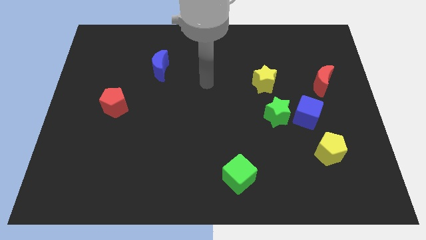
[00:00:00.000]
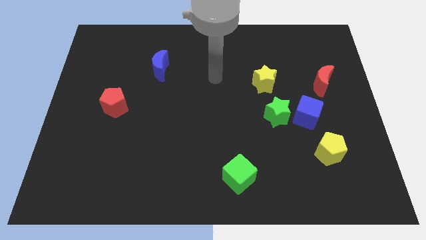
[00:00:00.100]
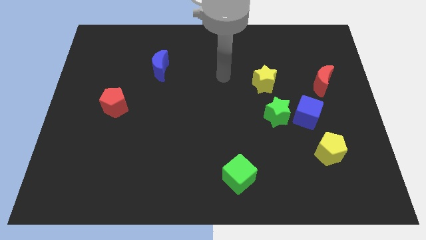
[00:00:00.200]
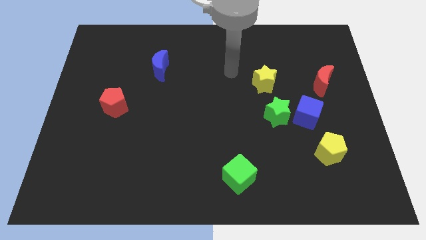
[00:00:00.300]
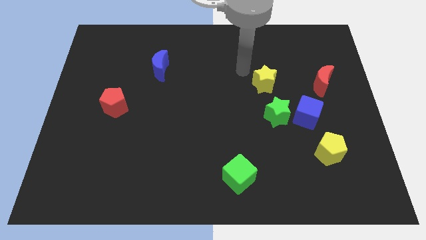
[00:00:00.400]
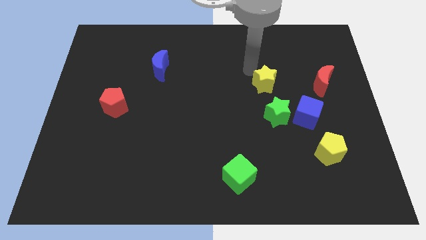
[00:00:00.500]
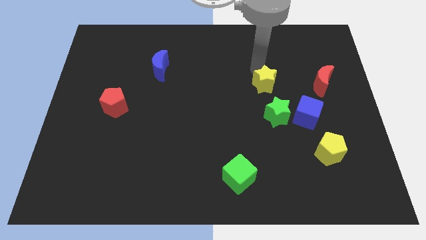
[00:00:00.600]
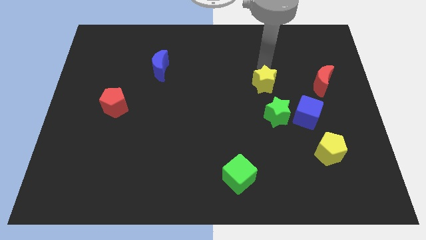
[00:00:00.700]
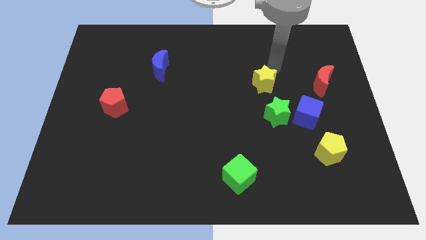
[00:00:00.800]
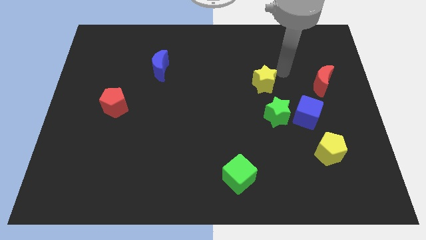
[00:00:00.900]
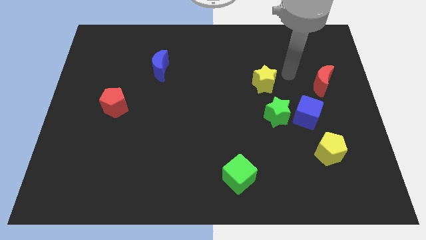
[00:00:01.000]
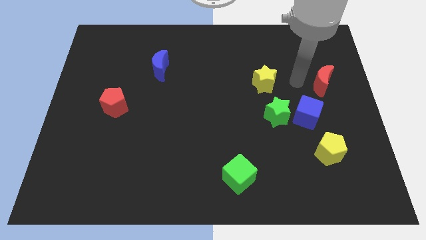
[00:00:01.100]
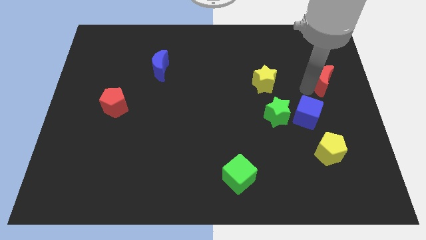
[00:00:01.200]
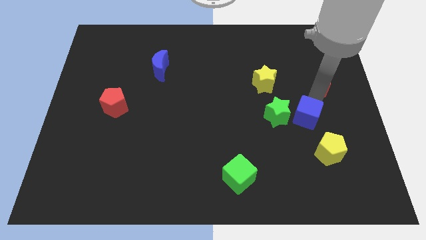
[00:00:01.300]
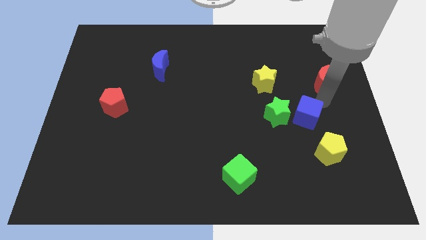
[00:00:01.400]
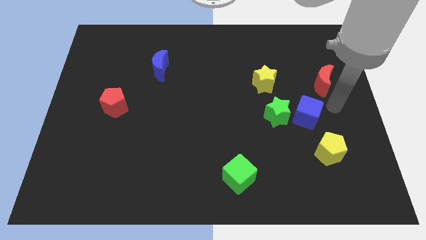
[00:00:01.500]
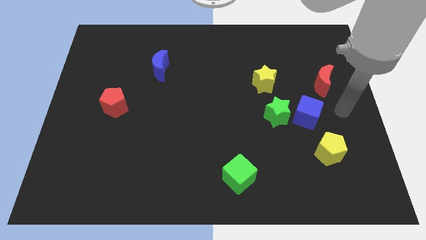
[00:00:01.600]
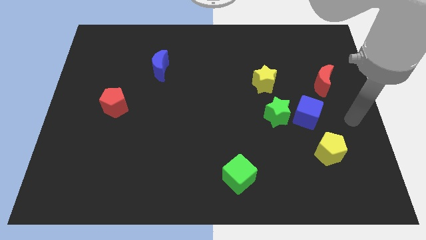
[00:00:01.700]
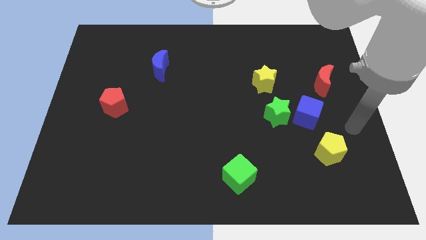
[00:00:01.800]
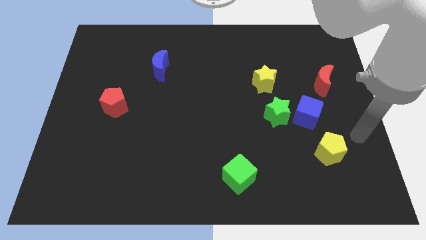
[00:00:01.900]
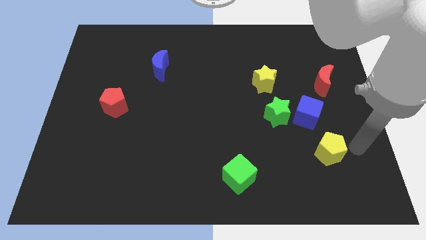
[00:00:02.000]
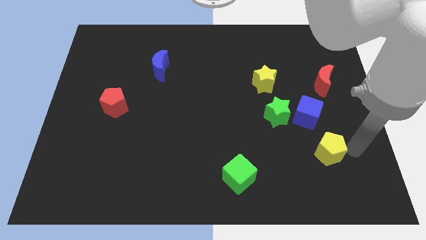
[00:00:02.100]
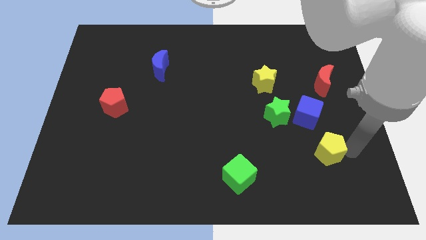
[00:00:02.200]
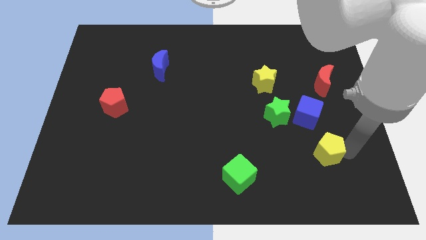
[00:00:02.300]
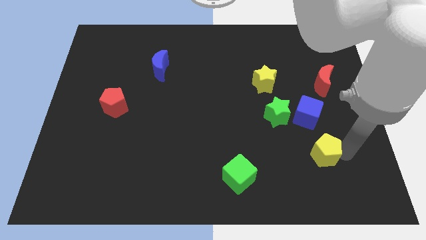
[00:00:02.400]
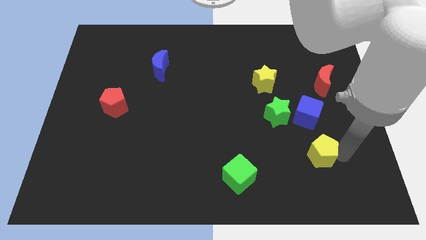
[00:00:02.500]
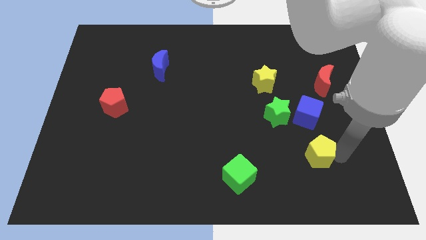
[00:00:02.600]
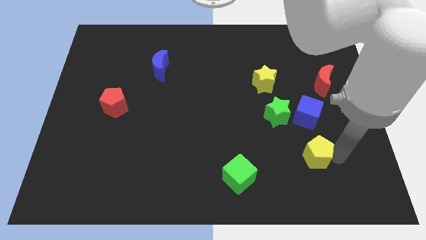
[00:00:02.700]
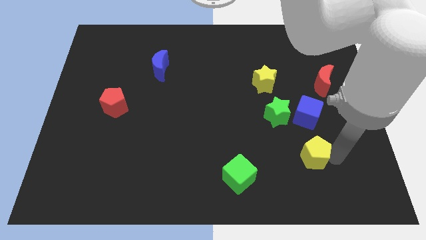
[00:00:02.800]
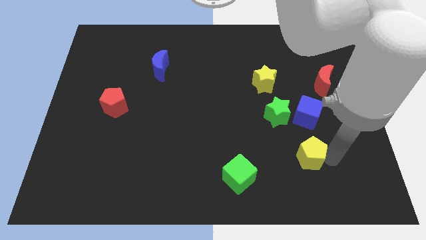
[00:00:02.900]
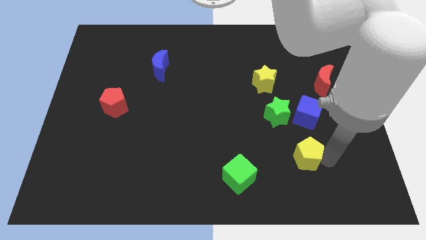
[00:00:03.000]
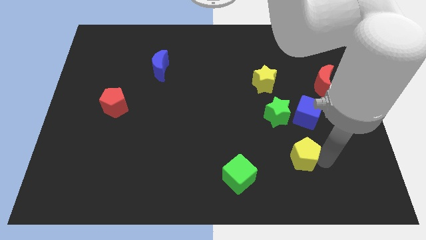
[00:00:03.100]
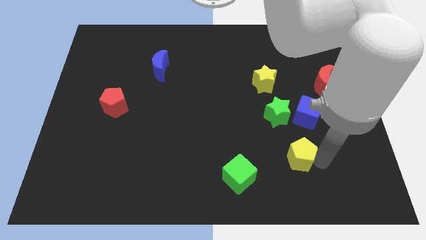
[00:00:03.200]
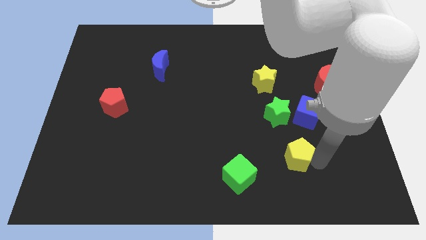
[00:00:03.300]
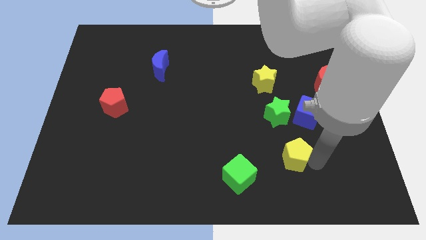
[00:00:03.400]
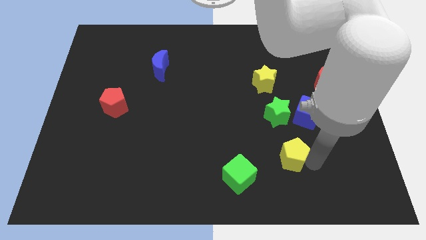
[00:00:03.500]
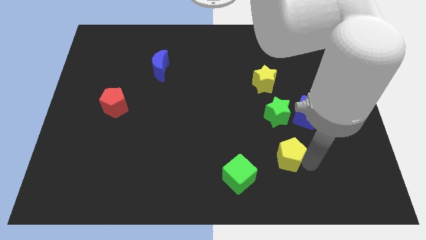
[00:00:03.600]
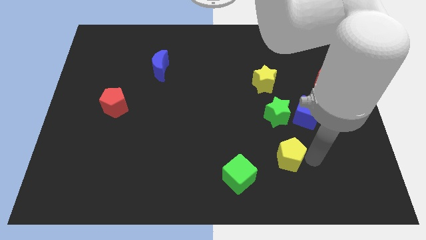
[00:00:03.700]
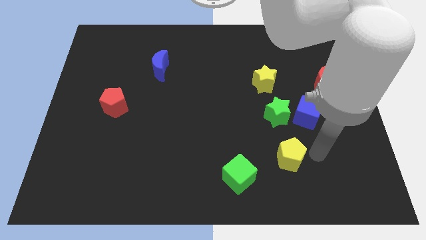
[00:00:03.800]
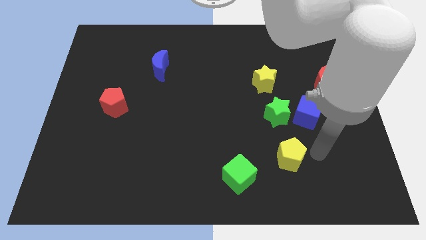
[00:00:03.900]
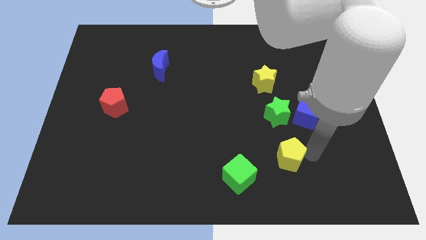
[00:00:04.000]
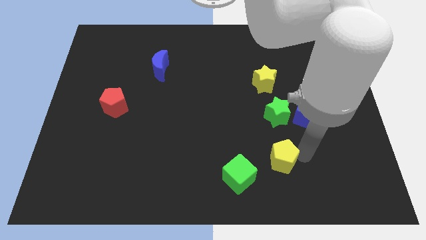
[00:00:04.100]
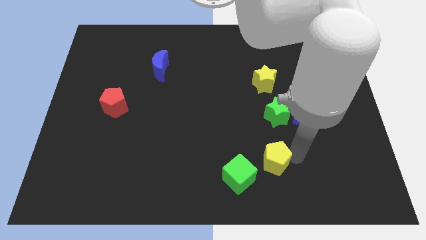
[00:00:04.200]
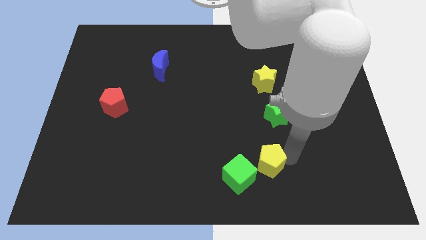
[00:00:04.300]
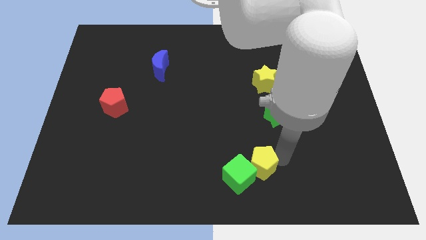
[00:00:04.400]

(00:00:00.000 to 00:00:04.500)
slide the yellow pentagon next to the green cube

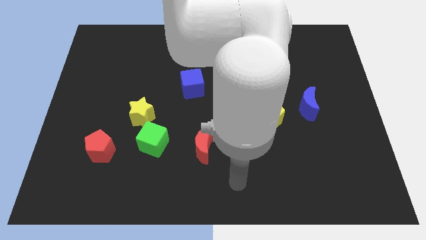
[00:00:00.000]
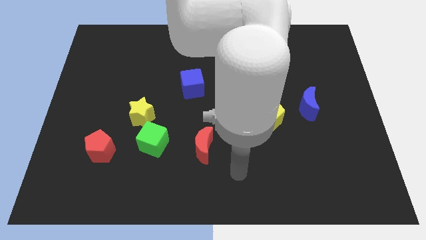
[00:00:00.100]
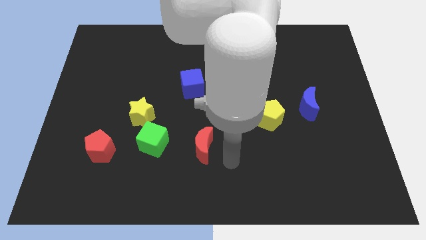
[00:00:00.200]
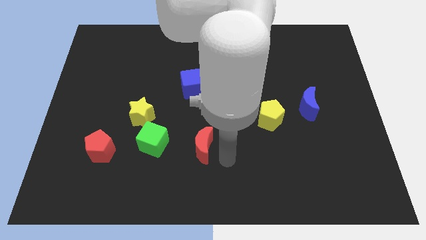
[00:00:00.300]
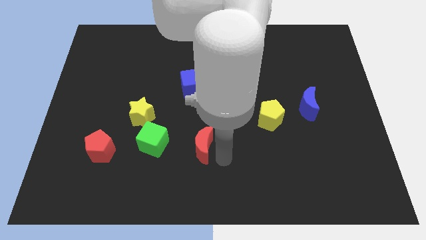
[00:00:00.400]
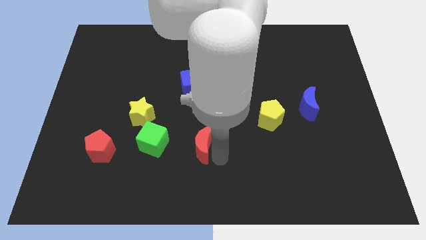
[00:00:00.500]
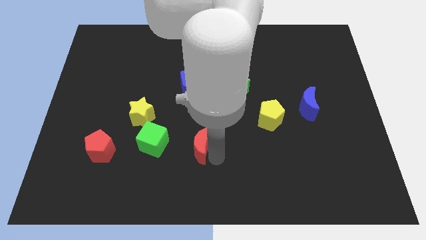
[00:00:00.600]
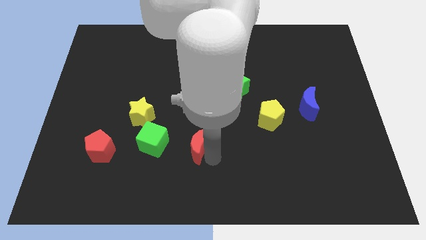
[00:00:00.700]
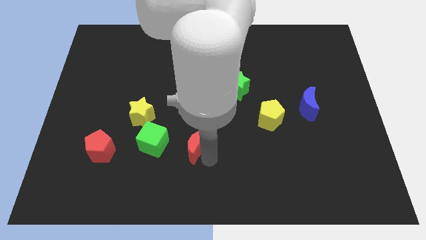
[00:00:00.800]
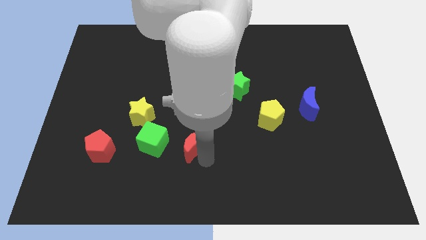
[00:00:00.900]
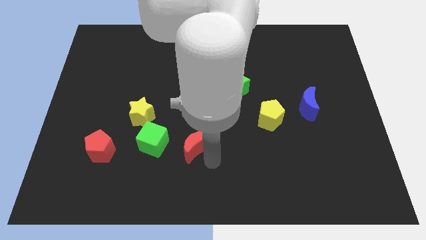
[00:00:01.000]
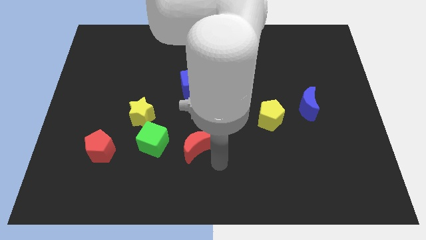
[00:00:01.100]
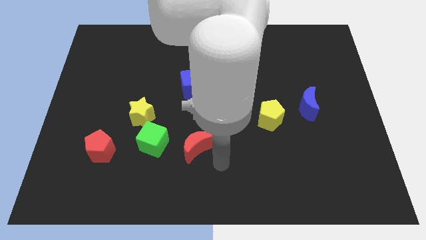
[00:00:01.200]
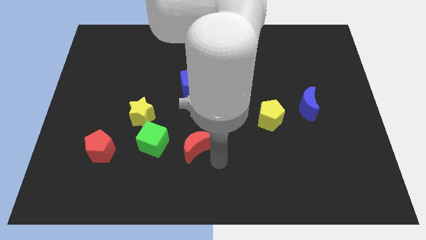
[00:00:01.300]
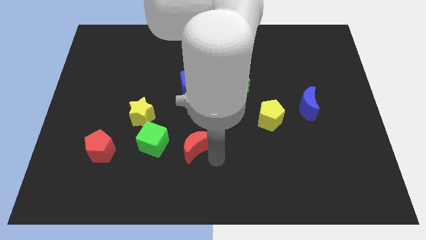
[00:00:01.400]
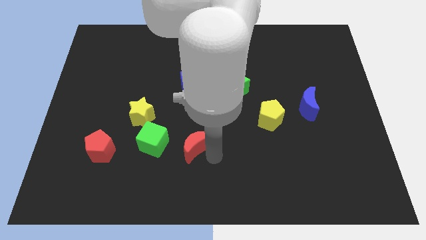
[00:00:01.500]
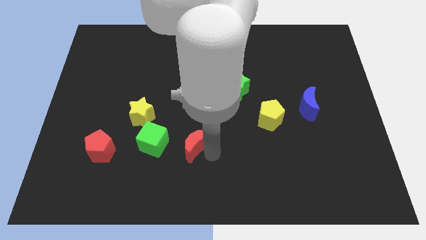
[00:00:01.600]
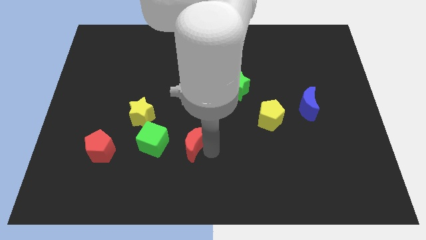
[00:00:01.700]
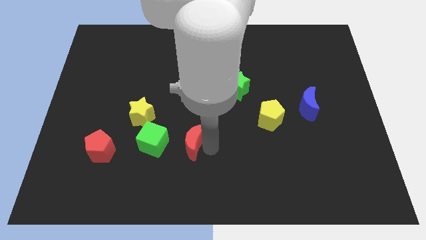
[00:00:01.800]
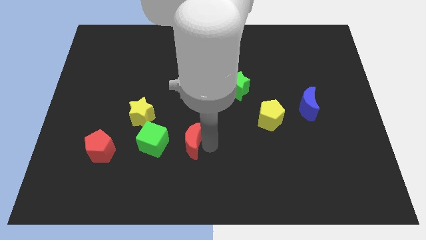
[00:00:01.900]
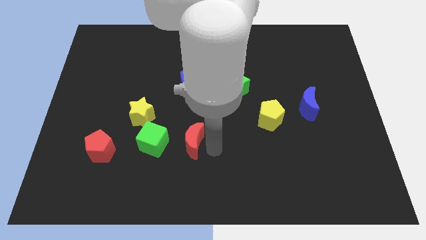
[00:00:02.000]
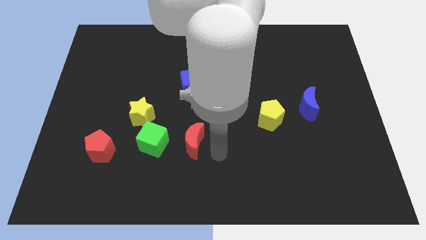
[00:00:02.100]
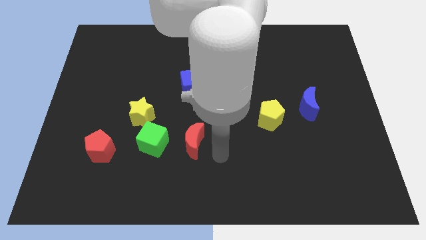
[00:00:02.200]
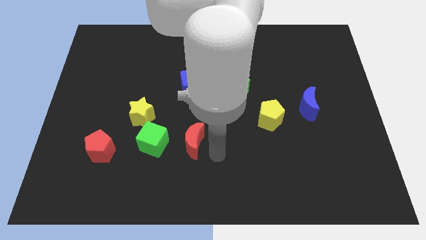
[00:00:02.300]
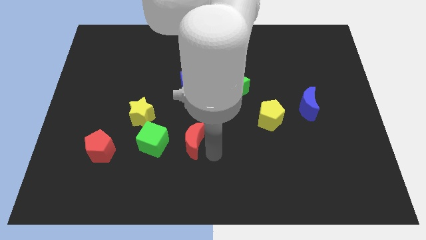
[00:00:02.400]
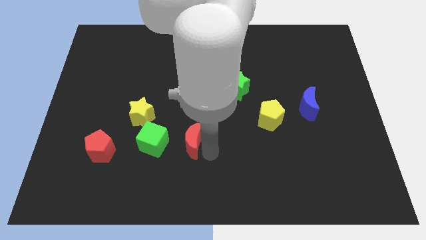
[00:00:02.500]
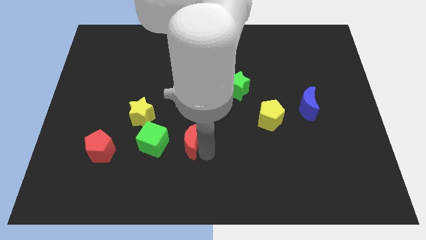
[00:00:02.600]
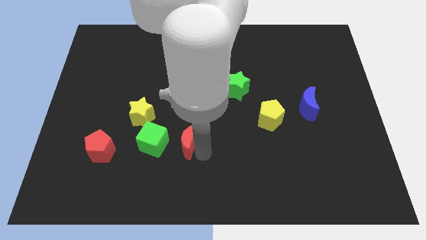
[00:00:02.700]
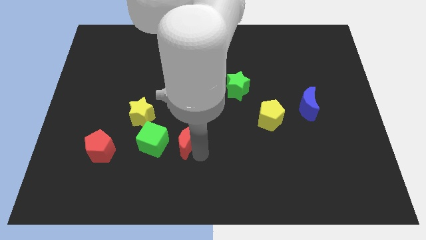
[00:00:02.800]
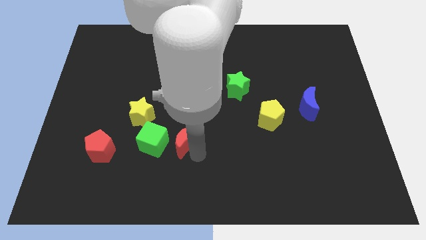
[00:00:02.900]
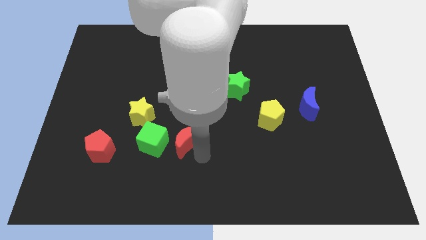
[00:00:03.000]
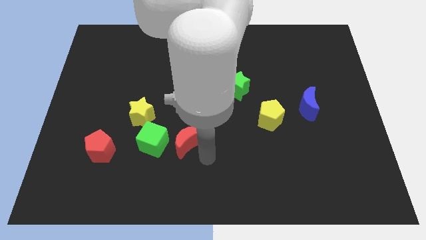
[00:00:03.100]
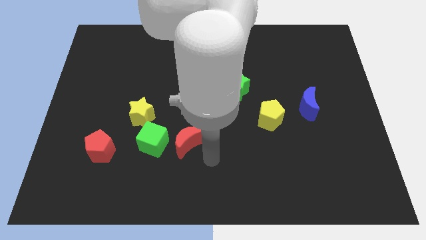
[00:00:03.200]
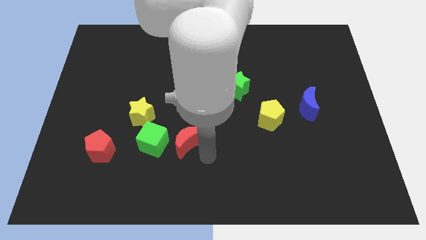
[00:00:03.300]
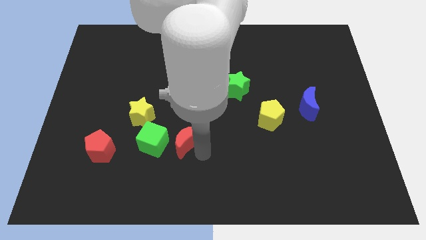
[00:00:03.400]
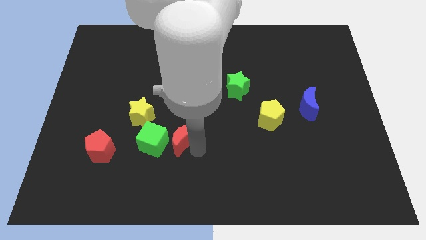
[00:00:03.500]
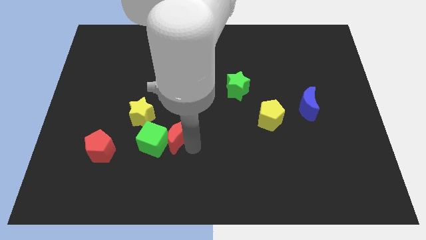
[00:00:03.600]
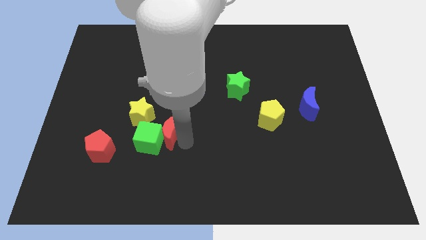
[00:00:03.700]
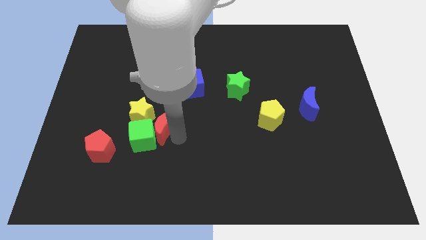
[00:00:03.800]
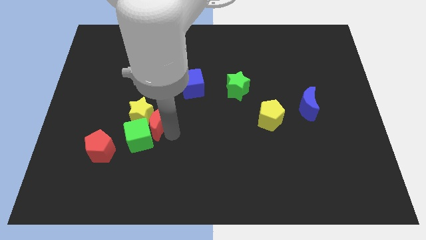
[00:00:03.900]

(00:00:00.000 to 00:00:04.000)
push the red moon to the yellow star
